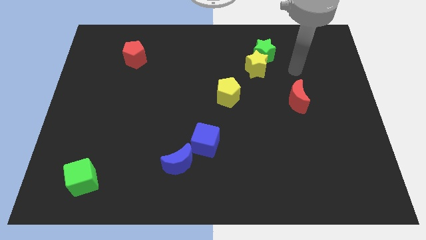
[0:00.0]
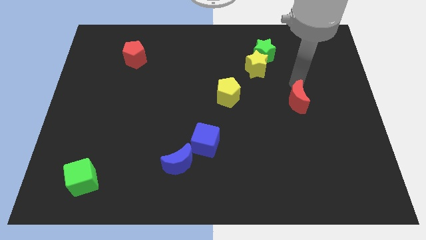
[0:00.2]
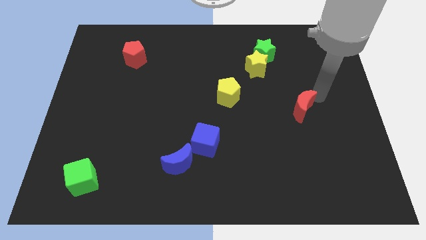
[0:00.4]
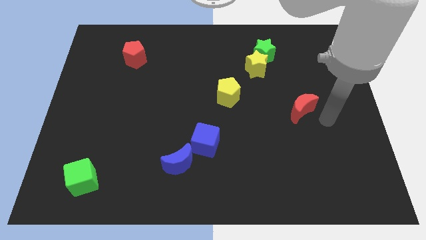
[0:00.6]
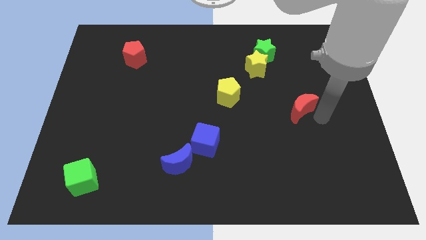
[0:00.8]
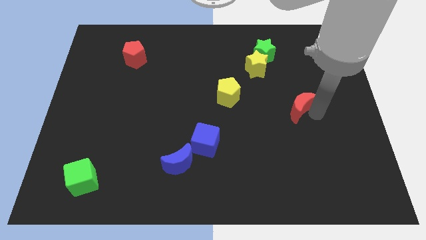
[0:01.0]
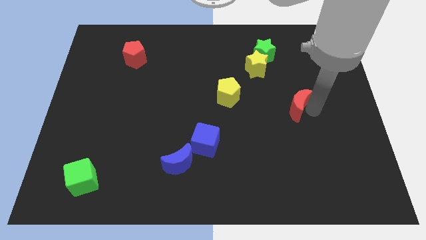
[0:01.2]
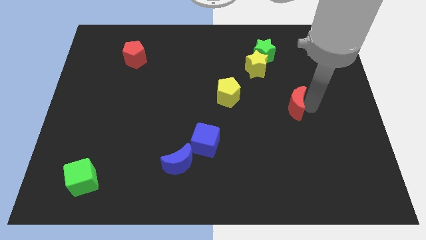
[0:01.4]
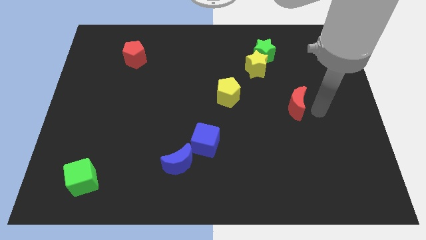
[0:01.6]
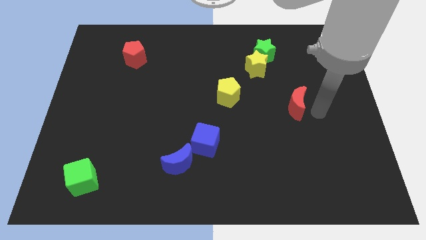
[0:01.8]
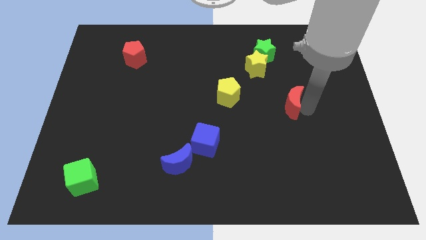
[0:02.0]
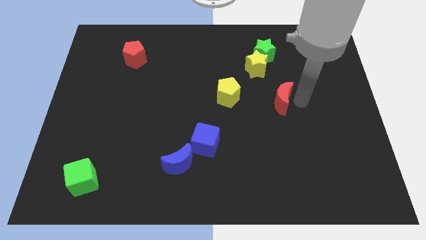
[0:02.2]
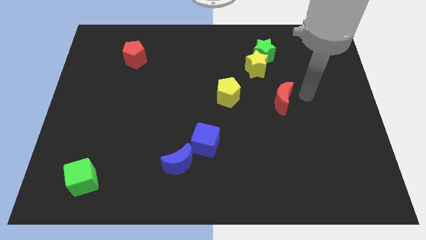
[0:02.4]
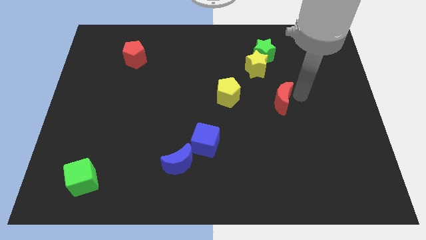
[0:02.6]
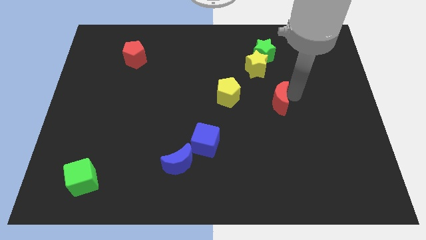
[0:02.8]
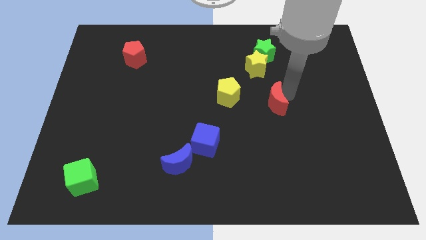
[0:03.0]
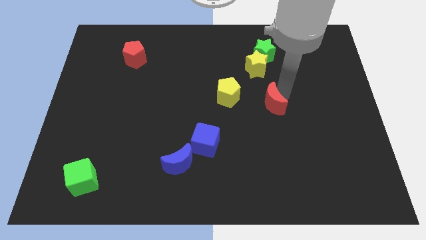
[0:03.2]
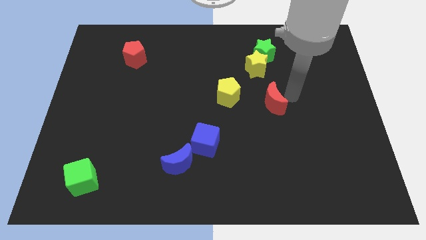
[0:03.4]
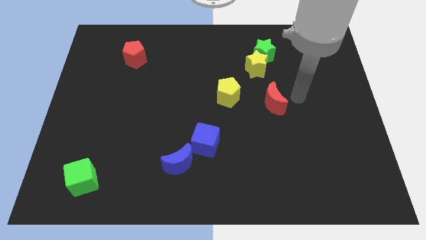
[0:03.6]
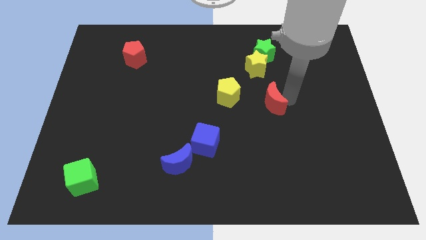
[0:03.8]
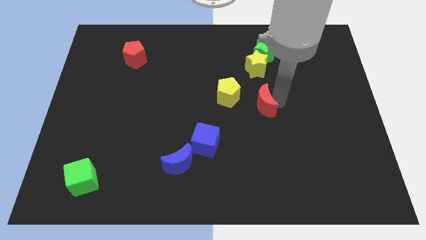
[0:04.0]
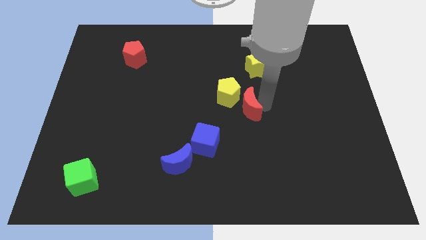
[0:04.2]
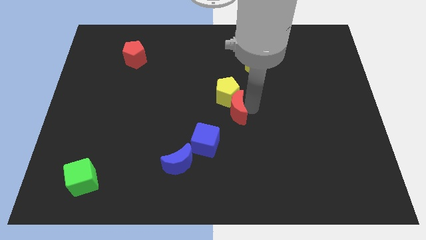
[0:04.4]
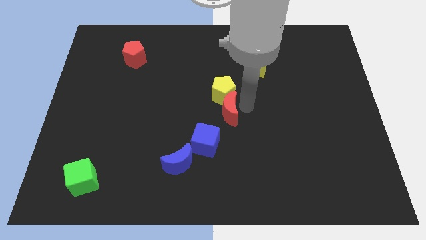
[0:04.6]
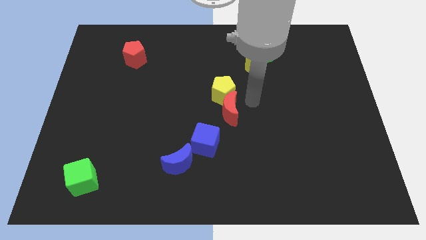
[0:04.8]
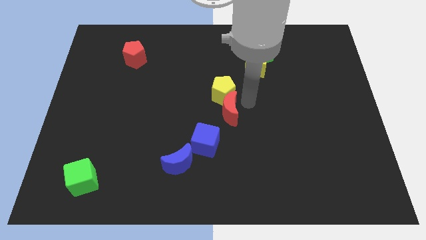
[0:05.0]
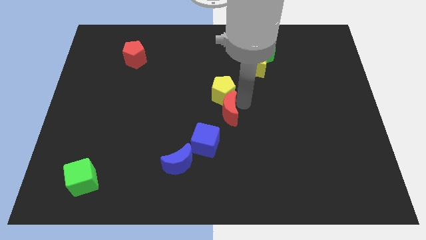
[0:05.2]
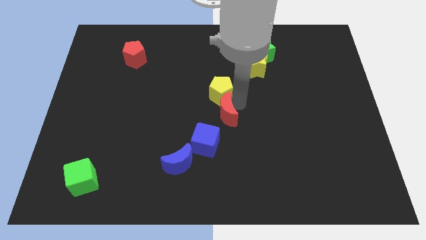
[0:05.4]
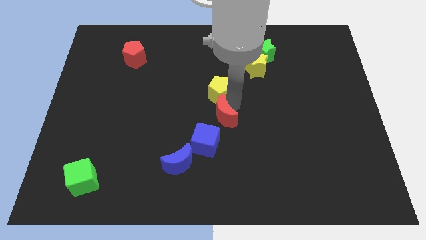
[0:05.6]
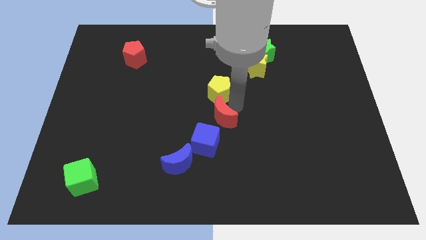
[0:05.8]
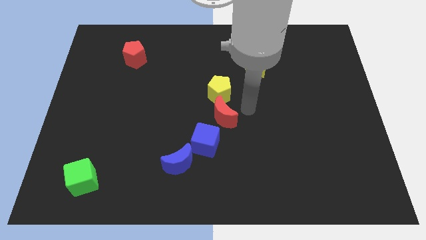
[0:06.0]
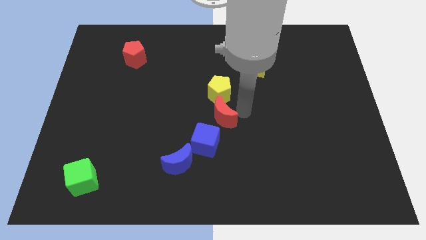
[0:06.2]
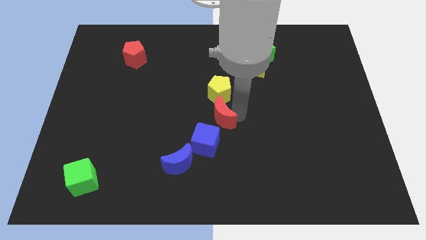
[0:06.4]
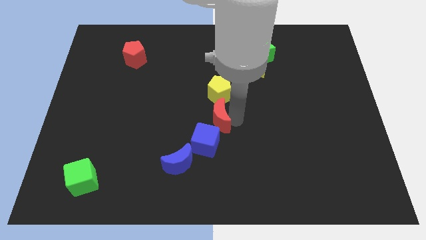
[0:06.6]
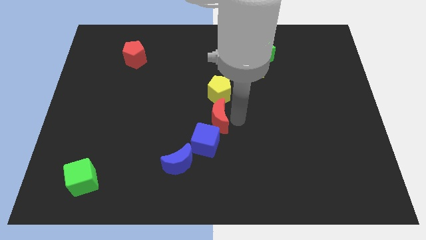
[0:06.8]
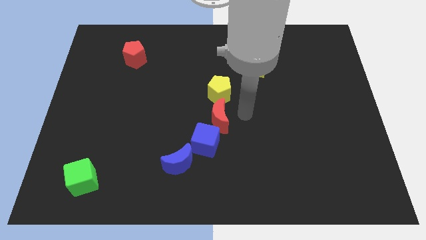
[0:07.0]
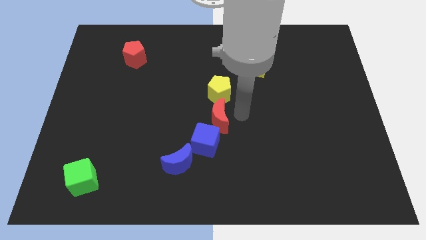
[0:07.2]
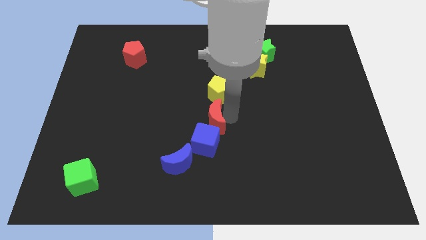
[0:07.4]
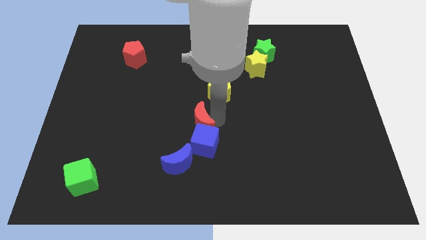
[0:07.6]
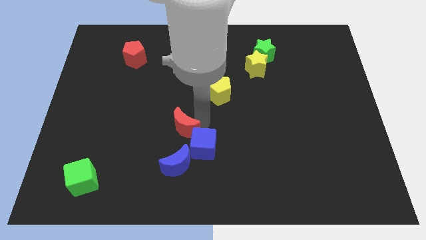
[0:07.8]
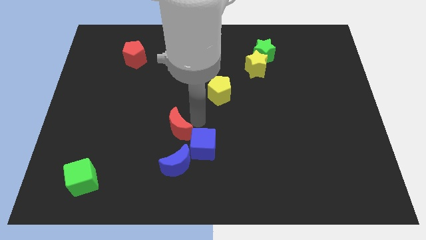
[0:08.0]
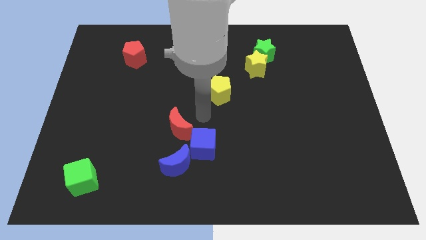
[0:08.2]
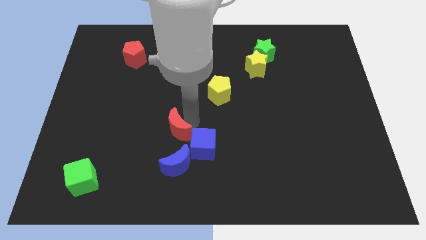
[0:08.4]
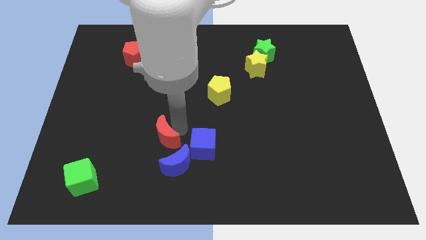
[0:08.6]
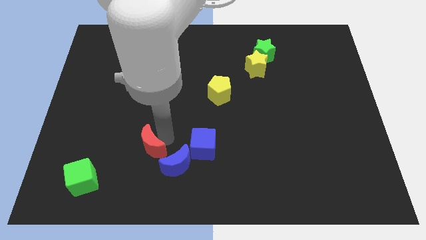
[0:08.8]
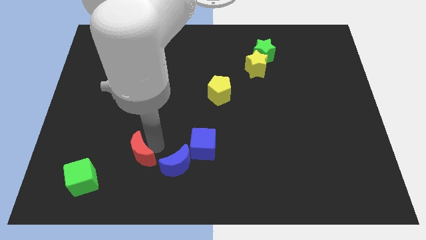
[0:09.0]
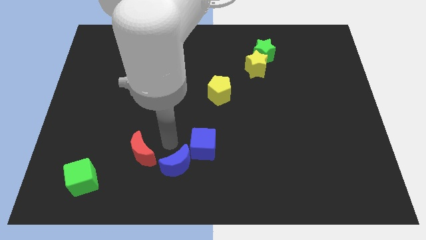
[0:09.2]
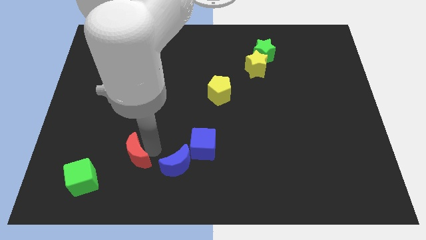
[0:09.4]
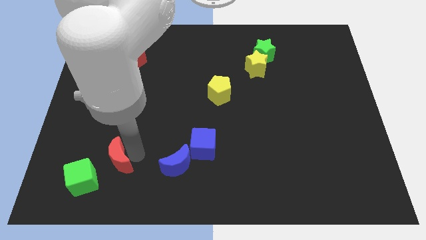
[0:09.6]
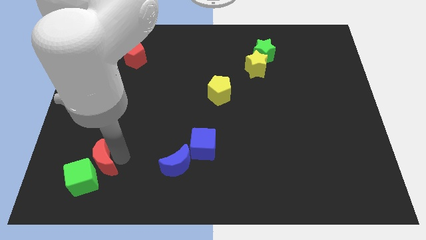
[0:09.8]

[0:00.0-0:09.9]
slide the red moon next to the green cube

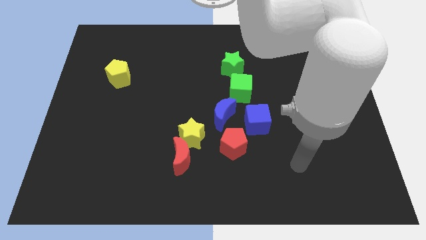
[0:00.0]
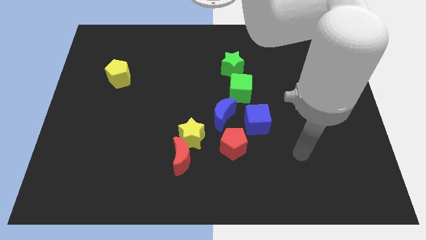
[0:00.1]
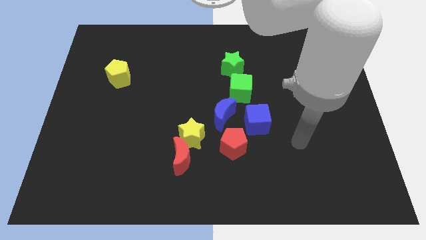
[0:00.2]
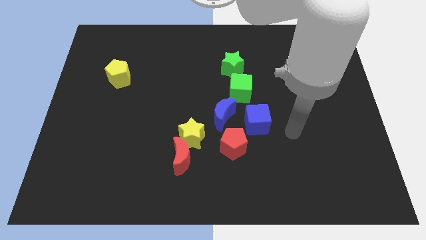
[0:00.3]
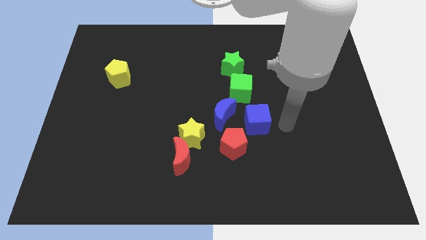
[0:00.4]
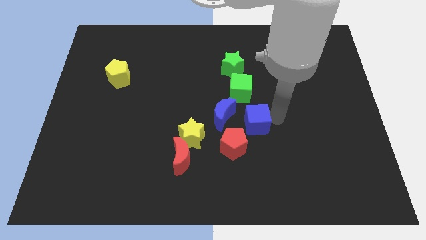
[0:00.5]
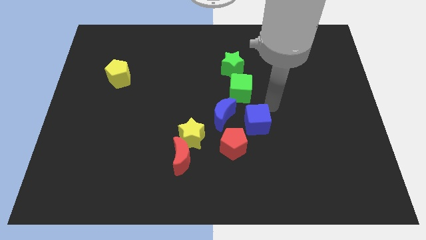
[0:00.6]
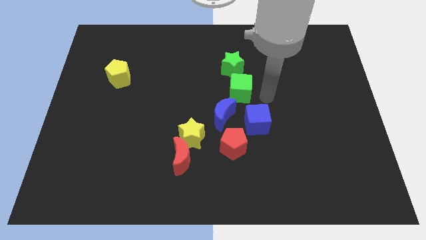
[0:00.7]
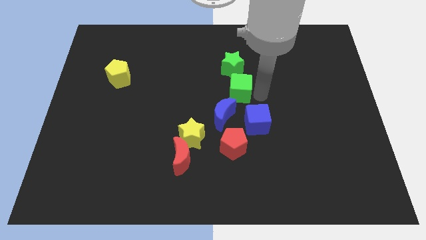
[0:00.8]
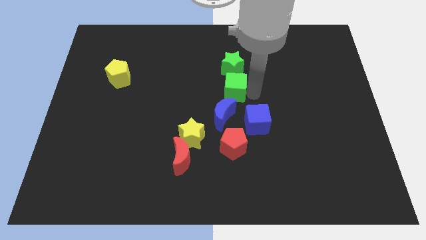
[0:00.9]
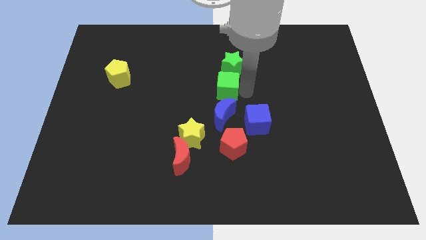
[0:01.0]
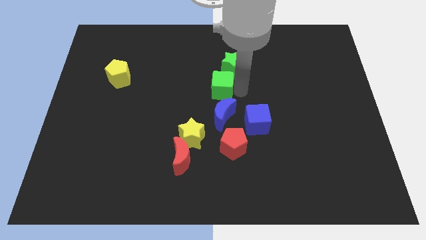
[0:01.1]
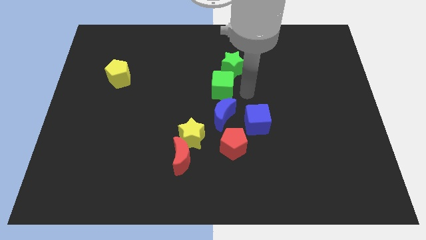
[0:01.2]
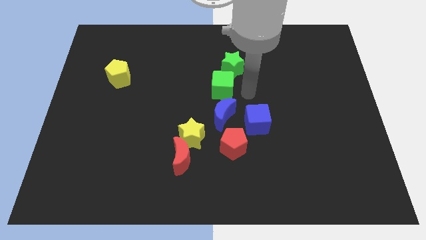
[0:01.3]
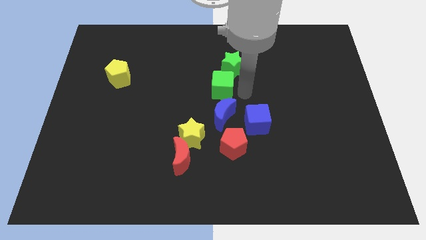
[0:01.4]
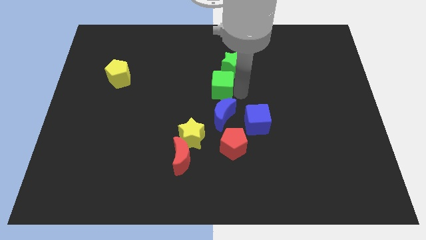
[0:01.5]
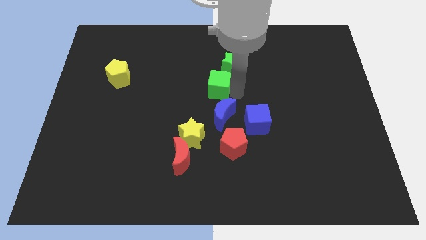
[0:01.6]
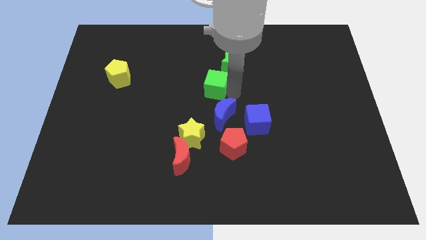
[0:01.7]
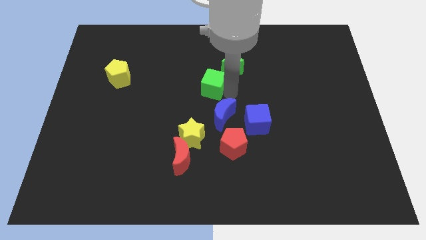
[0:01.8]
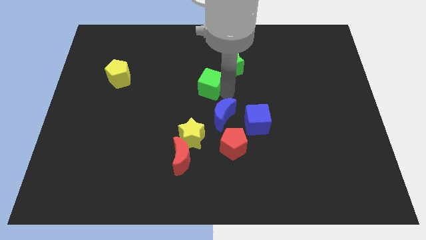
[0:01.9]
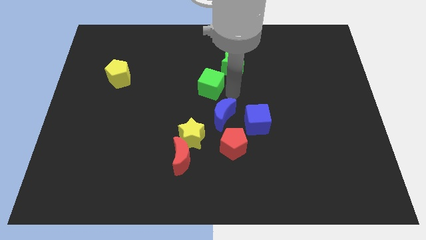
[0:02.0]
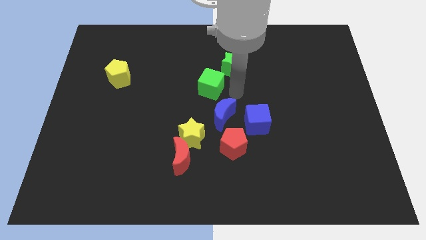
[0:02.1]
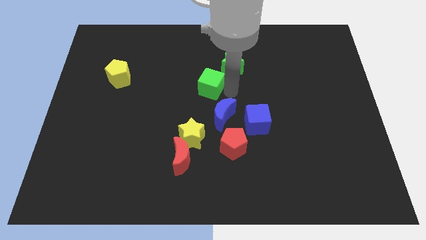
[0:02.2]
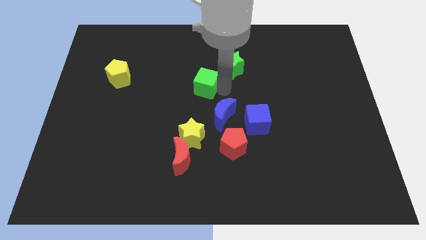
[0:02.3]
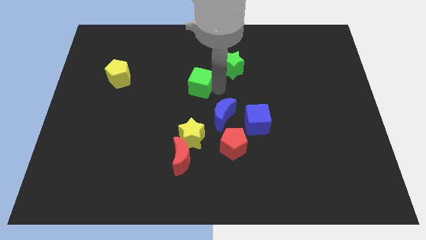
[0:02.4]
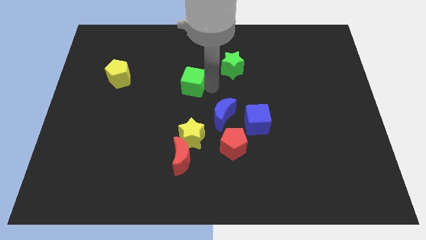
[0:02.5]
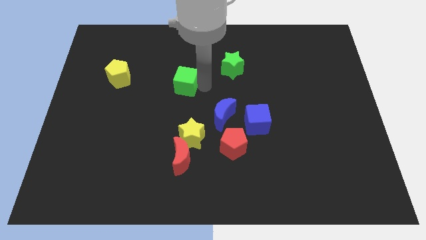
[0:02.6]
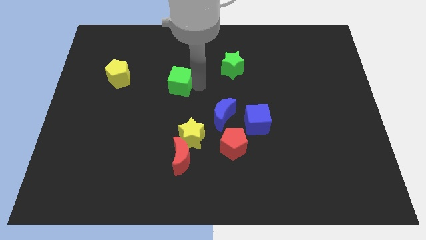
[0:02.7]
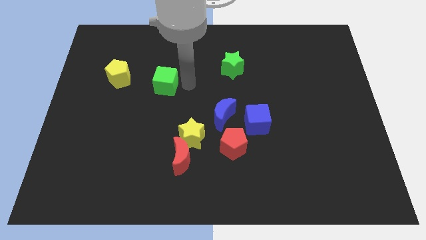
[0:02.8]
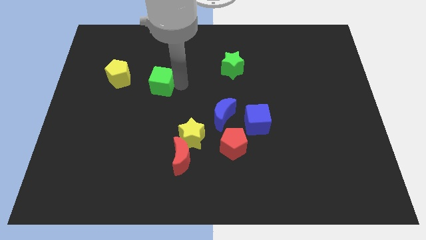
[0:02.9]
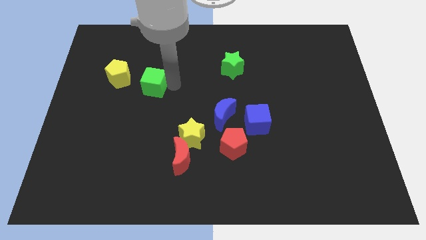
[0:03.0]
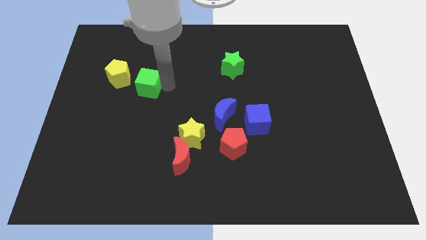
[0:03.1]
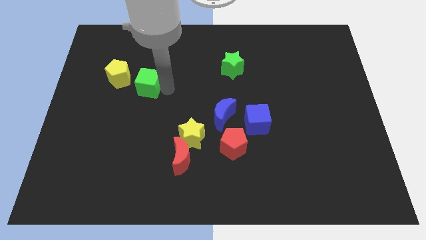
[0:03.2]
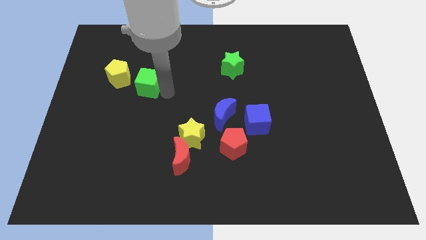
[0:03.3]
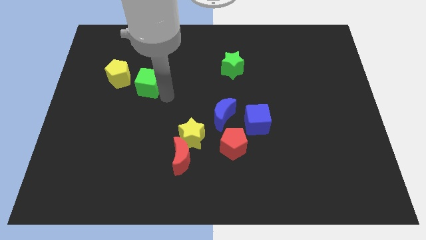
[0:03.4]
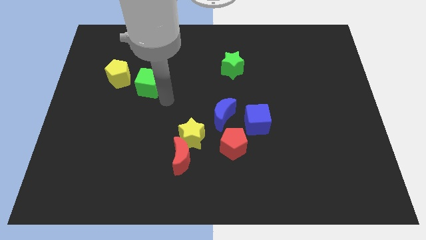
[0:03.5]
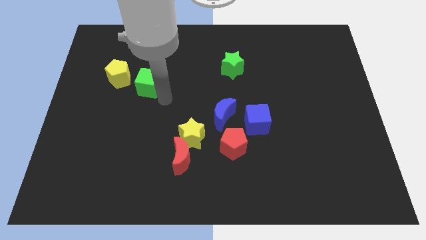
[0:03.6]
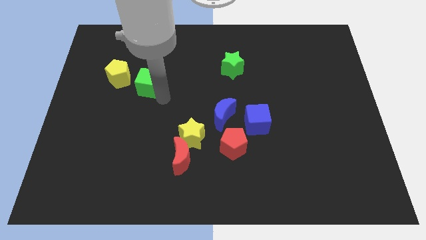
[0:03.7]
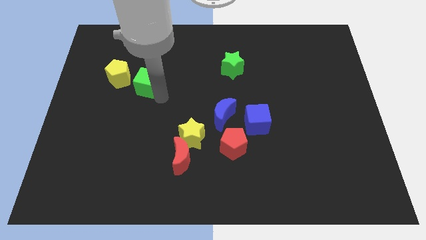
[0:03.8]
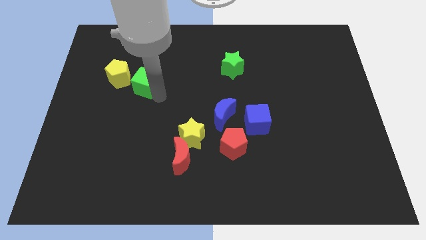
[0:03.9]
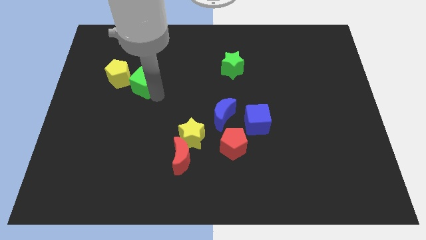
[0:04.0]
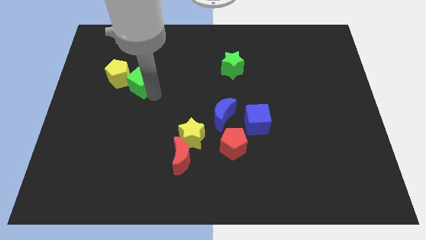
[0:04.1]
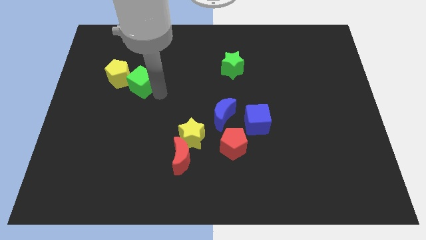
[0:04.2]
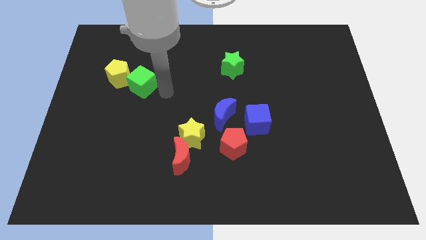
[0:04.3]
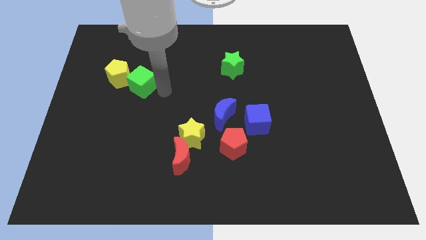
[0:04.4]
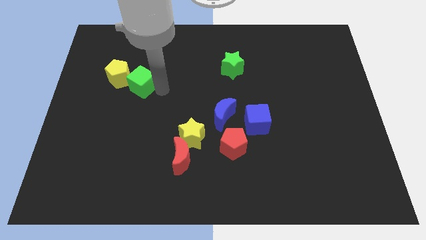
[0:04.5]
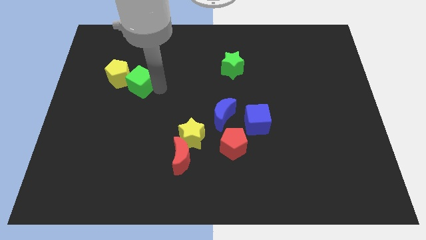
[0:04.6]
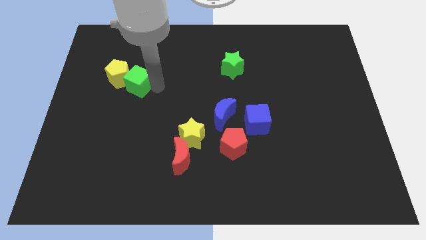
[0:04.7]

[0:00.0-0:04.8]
slide the green cube to the yellow pentagon
